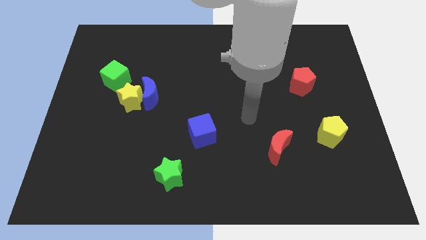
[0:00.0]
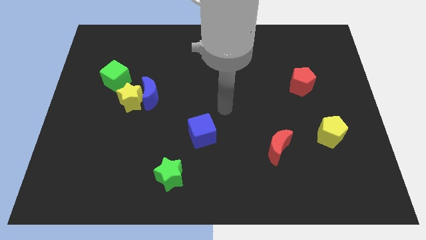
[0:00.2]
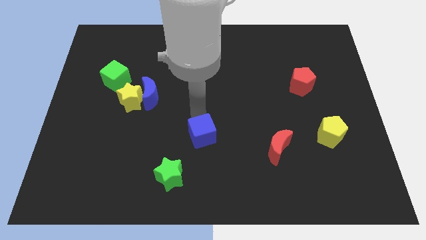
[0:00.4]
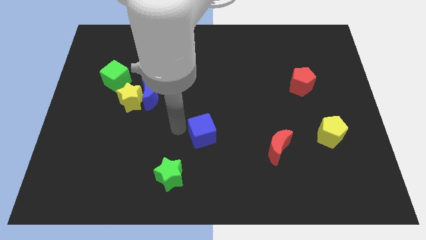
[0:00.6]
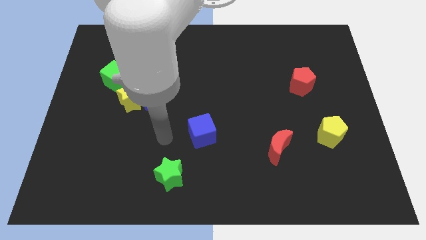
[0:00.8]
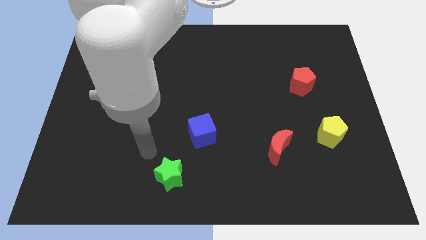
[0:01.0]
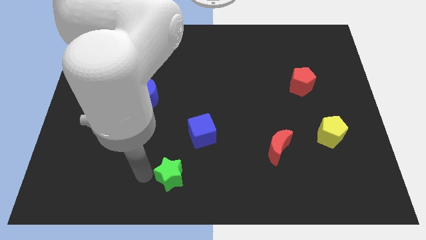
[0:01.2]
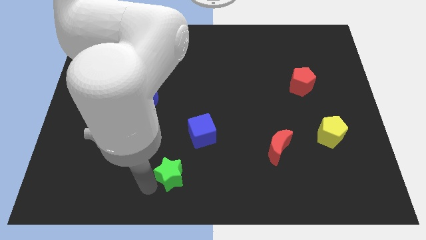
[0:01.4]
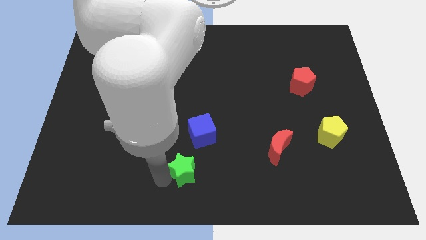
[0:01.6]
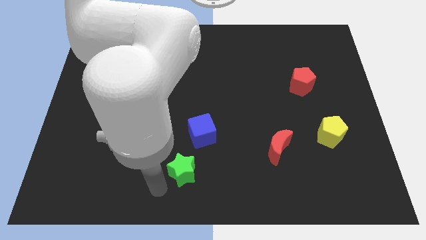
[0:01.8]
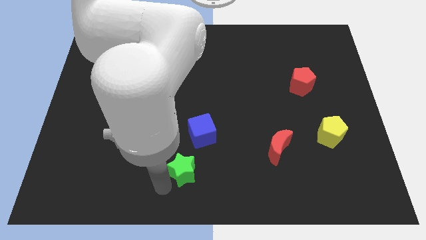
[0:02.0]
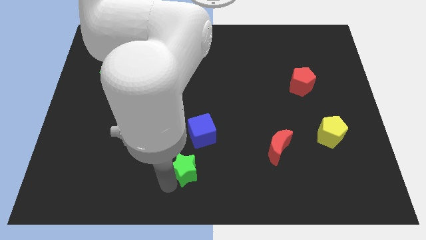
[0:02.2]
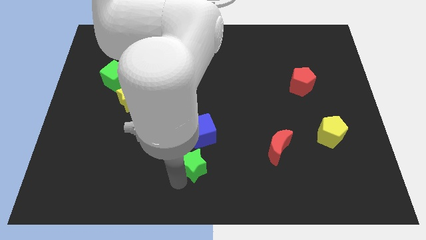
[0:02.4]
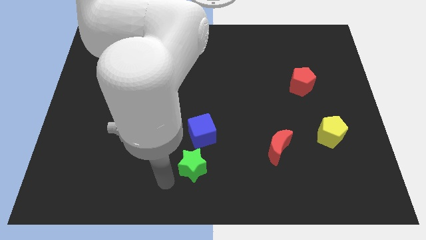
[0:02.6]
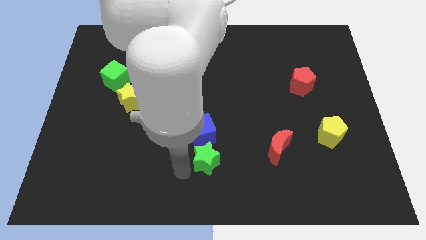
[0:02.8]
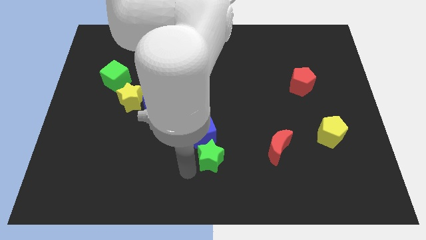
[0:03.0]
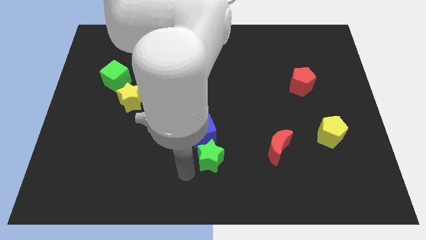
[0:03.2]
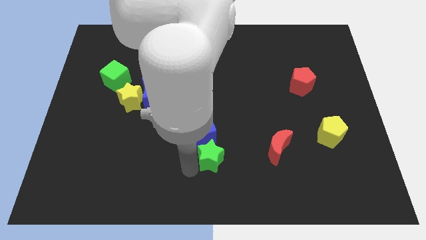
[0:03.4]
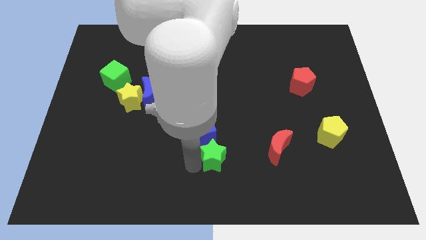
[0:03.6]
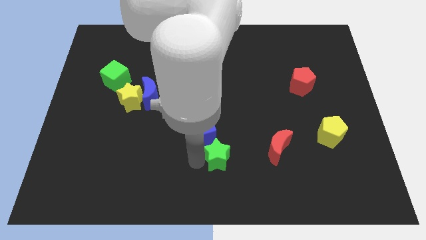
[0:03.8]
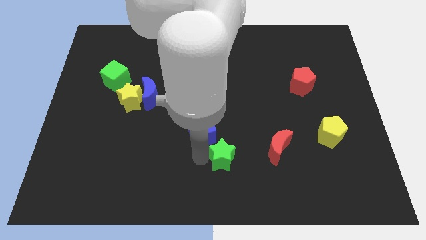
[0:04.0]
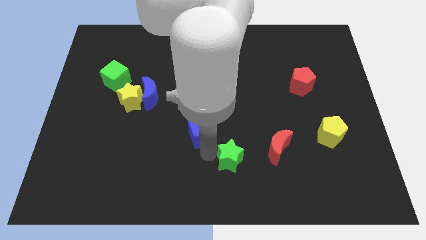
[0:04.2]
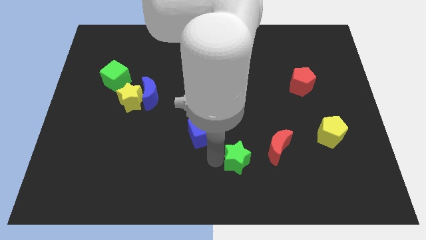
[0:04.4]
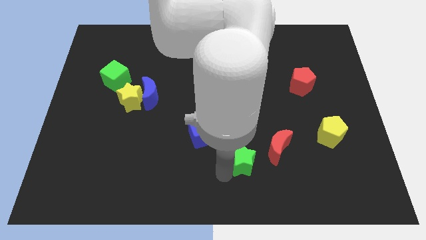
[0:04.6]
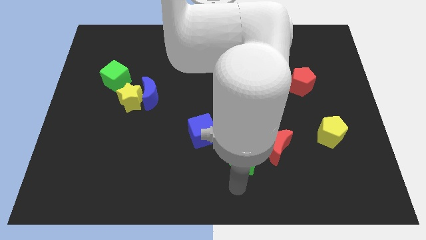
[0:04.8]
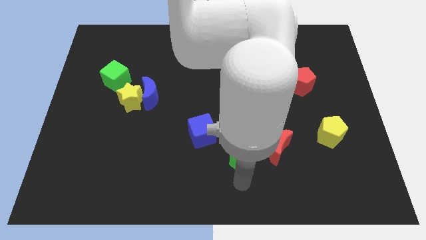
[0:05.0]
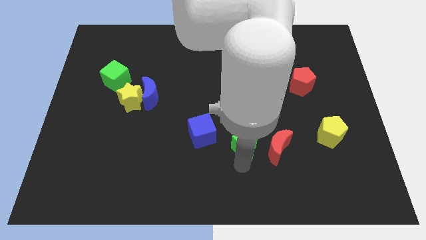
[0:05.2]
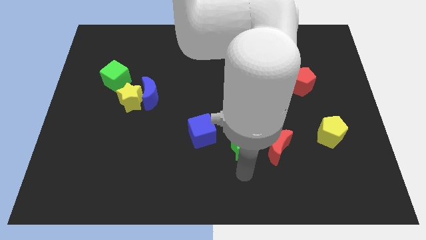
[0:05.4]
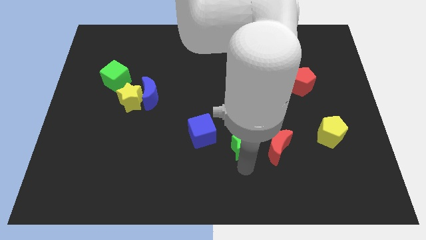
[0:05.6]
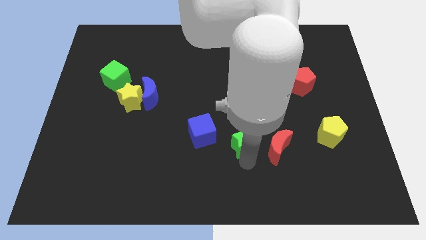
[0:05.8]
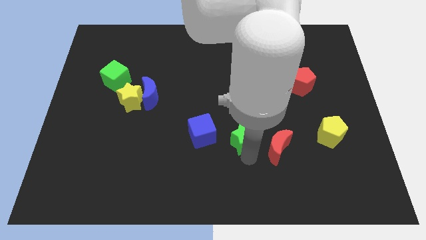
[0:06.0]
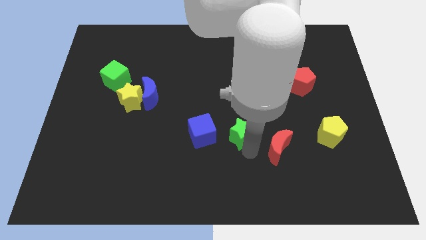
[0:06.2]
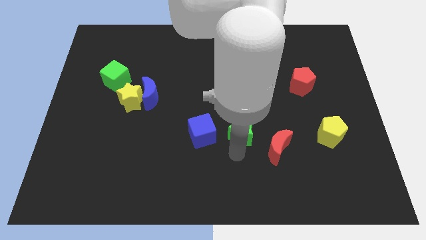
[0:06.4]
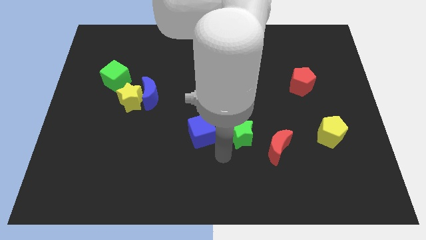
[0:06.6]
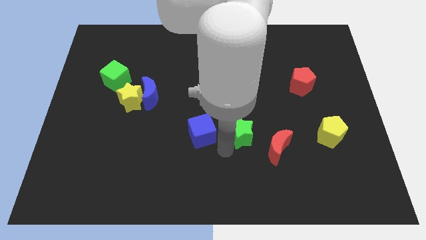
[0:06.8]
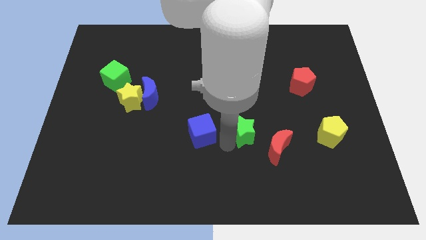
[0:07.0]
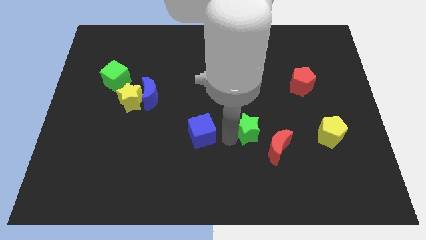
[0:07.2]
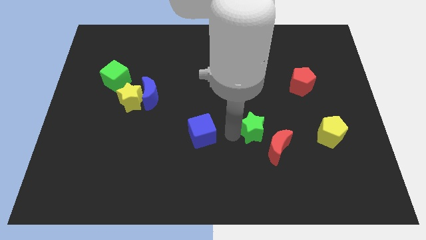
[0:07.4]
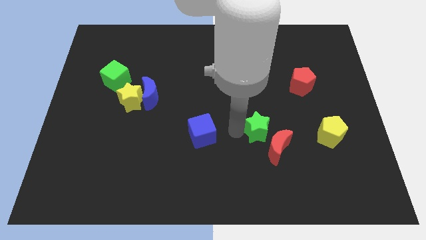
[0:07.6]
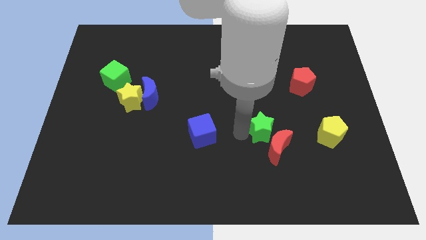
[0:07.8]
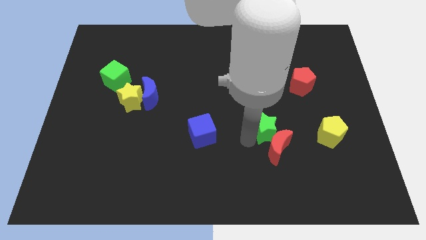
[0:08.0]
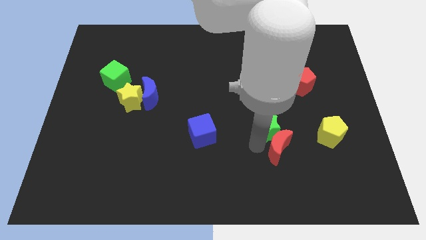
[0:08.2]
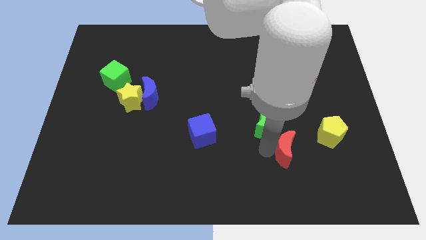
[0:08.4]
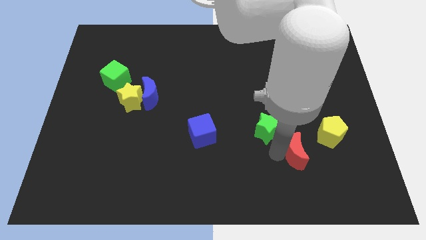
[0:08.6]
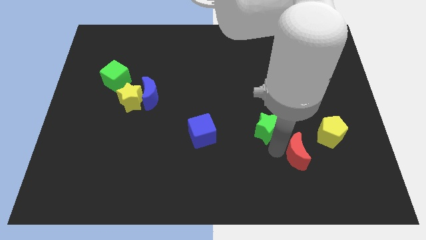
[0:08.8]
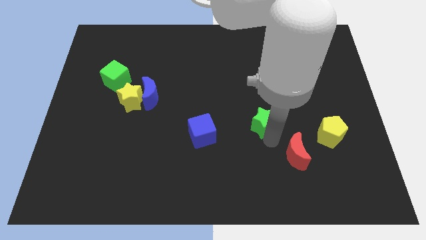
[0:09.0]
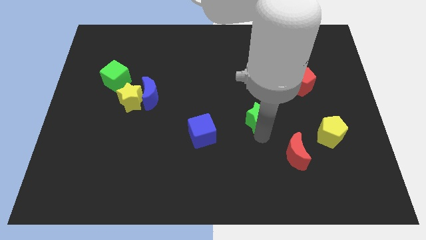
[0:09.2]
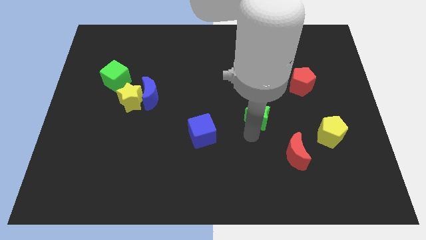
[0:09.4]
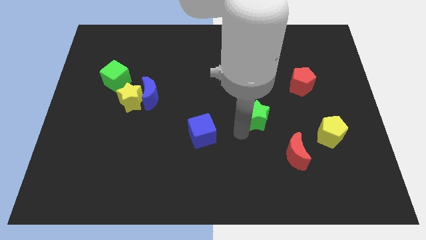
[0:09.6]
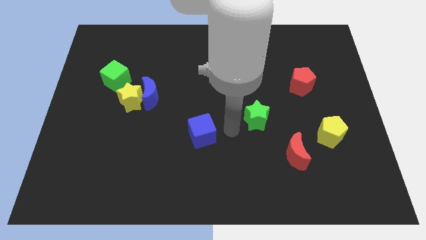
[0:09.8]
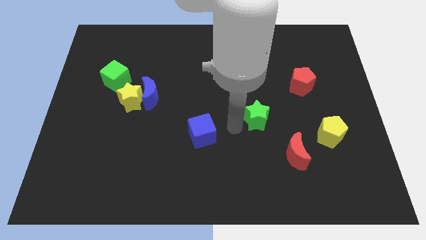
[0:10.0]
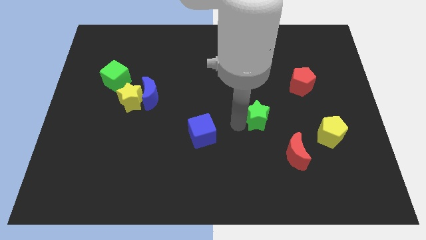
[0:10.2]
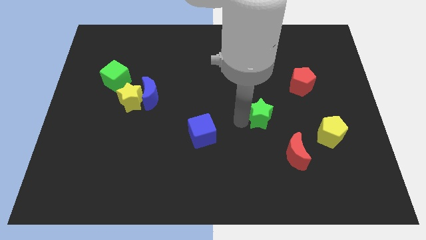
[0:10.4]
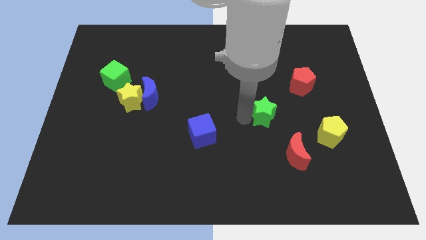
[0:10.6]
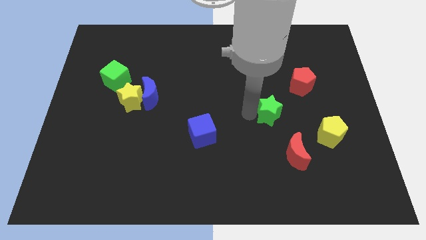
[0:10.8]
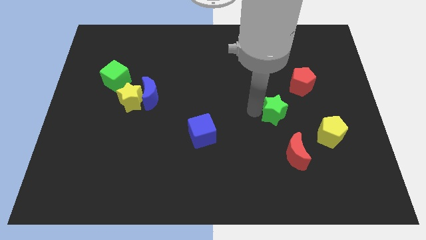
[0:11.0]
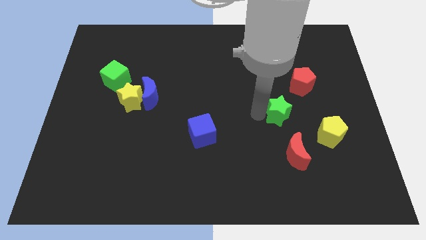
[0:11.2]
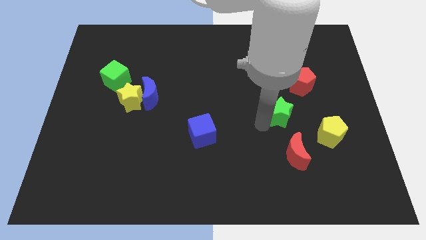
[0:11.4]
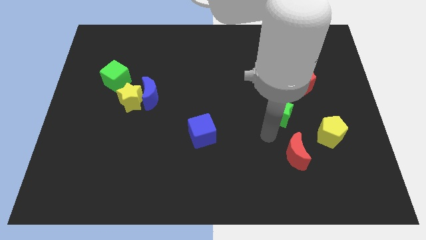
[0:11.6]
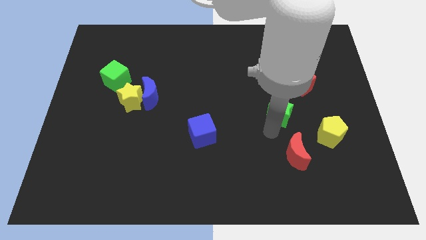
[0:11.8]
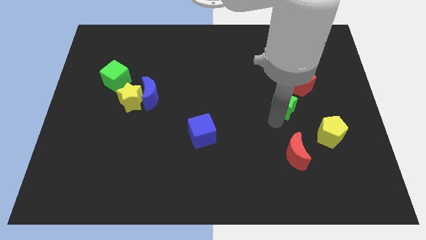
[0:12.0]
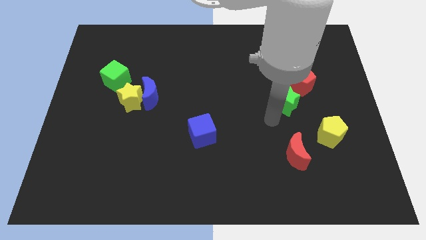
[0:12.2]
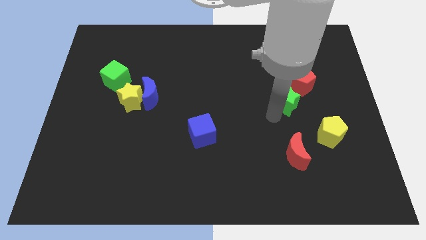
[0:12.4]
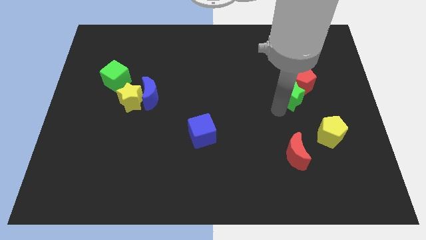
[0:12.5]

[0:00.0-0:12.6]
put the green star close to the red pentagon
